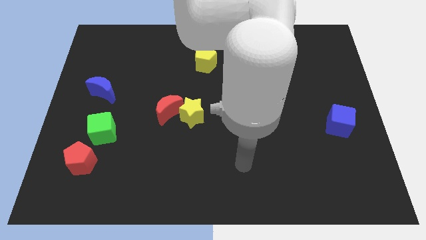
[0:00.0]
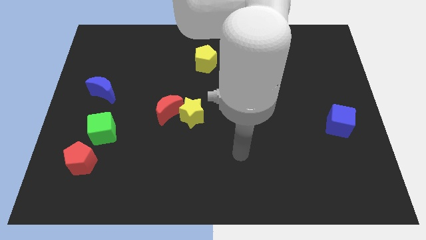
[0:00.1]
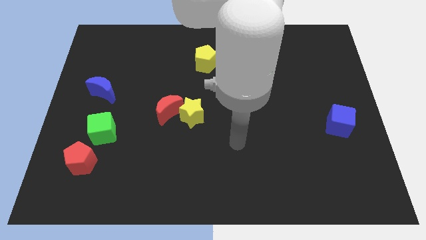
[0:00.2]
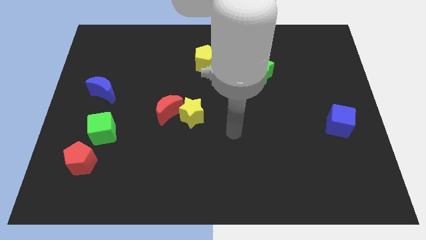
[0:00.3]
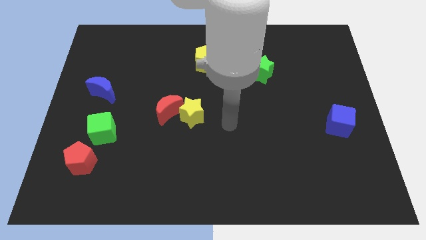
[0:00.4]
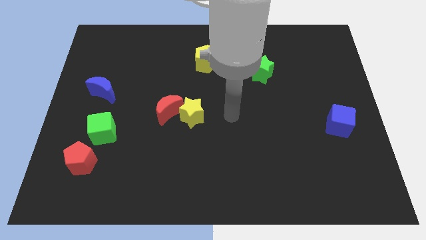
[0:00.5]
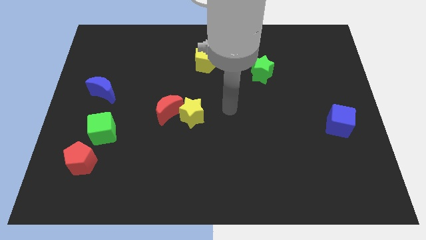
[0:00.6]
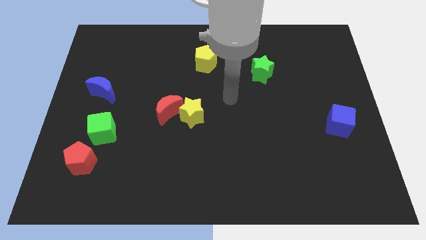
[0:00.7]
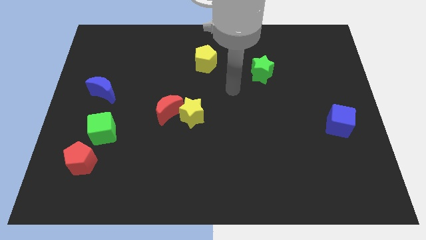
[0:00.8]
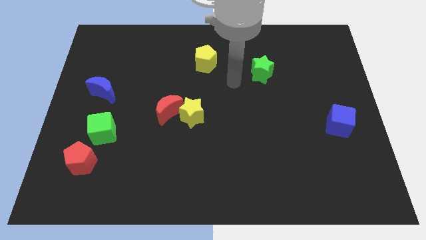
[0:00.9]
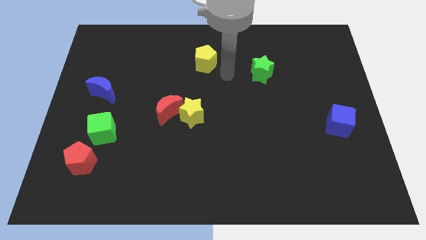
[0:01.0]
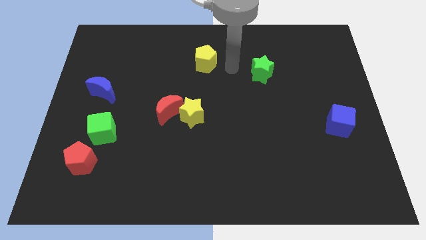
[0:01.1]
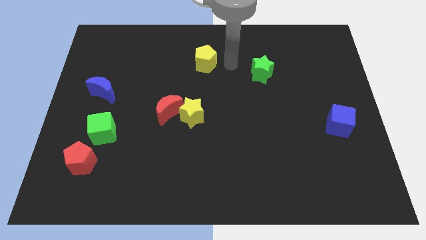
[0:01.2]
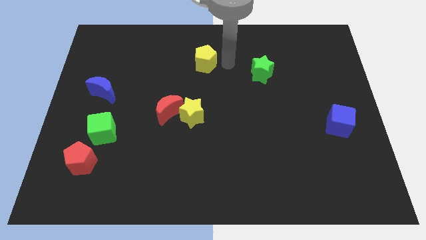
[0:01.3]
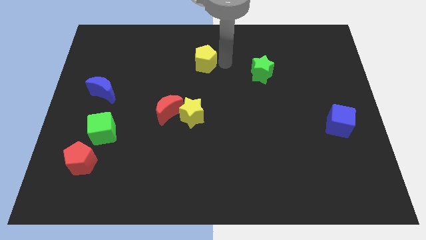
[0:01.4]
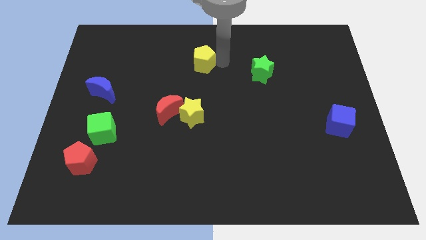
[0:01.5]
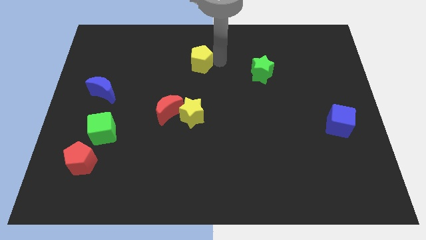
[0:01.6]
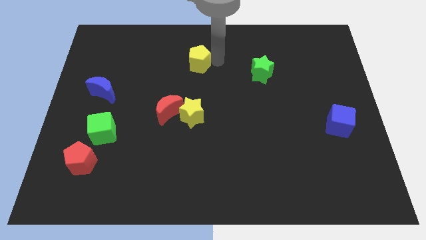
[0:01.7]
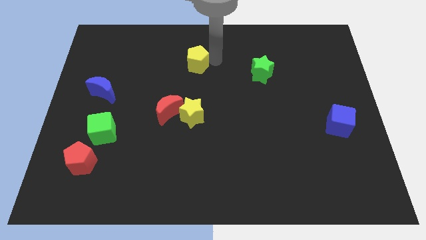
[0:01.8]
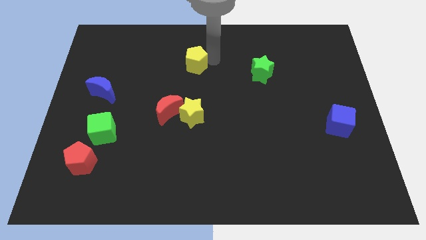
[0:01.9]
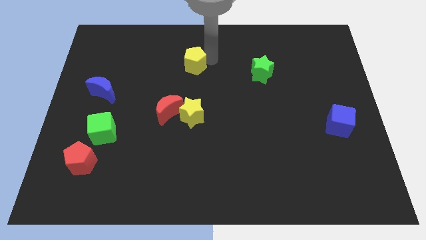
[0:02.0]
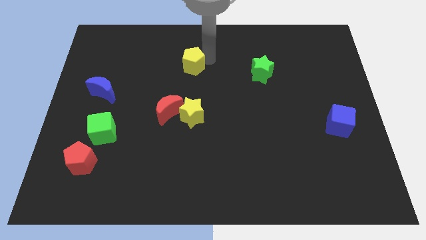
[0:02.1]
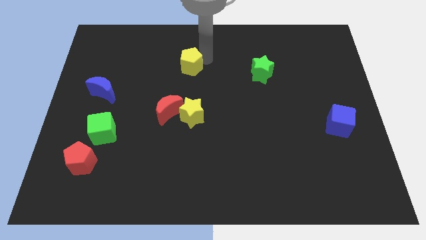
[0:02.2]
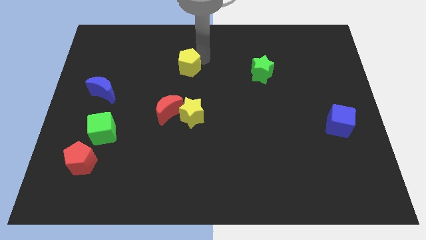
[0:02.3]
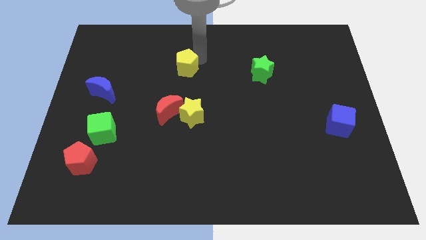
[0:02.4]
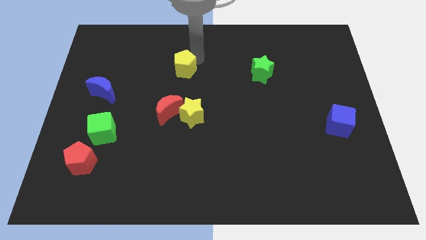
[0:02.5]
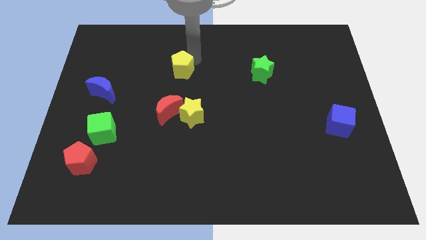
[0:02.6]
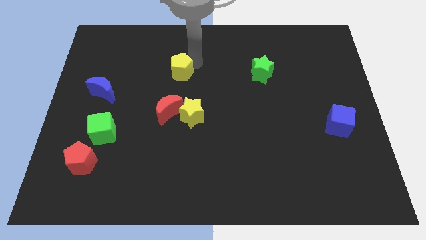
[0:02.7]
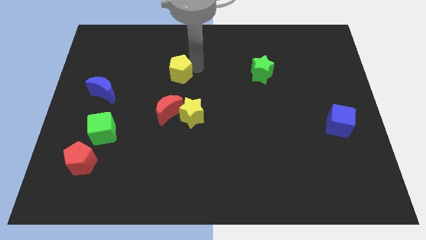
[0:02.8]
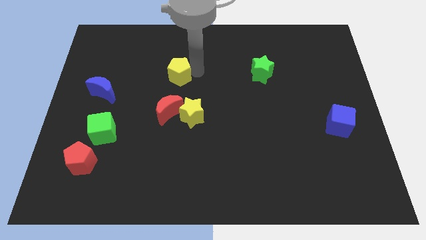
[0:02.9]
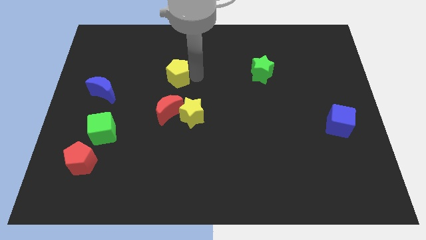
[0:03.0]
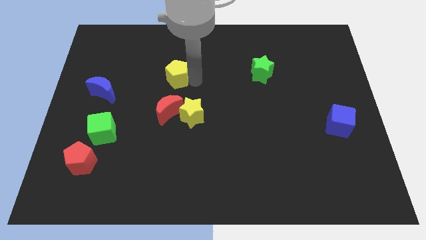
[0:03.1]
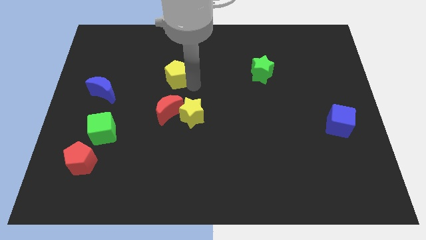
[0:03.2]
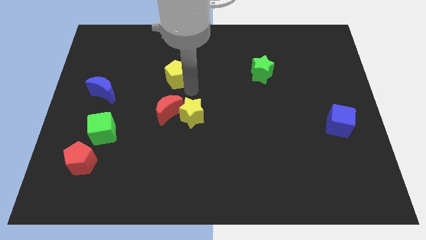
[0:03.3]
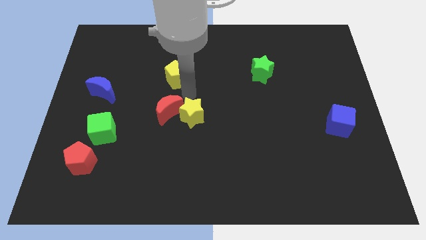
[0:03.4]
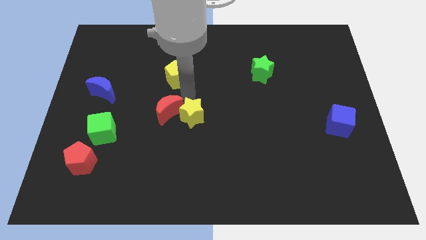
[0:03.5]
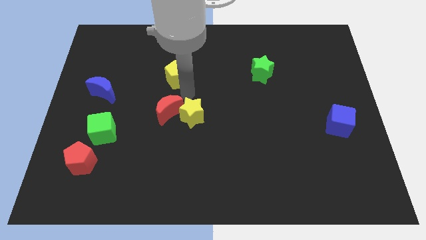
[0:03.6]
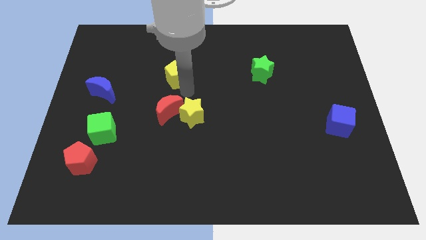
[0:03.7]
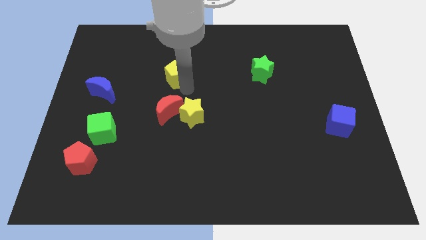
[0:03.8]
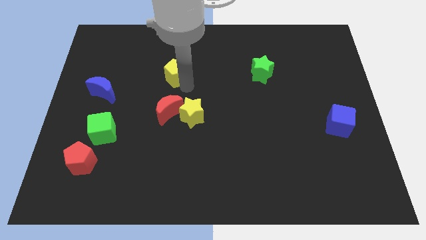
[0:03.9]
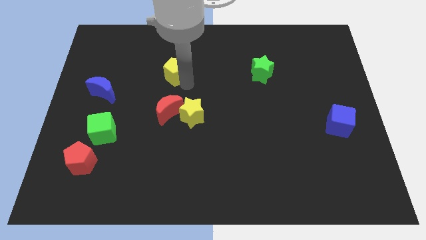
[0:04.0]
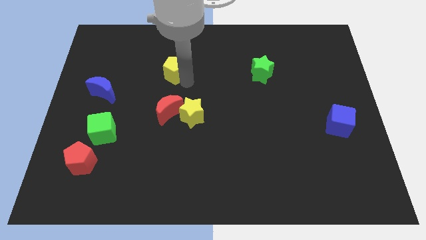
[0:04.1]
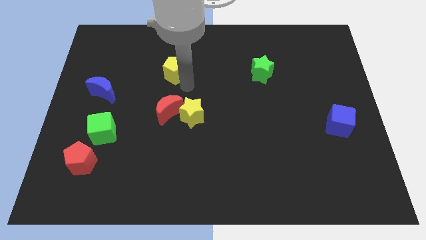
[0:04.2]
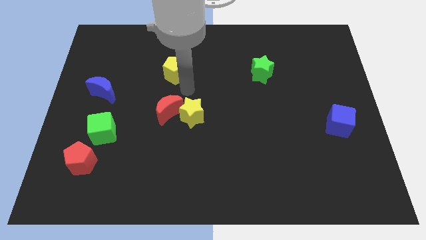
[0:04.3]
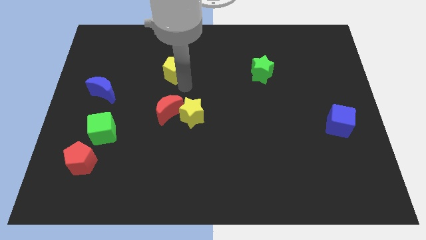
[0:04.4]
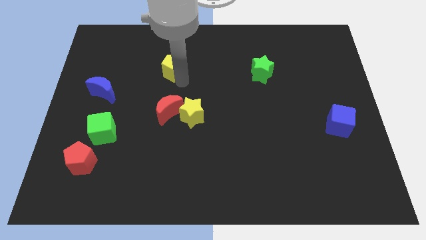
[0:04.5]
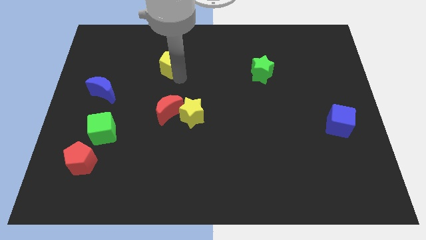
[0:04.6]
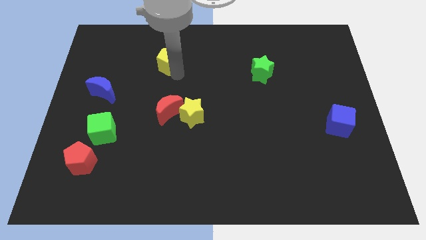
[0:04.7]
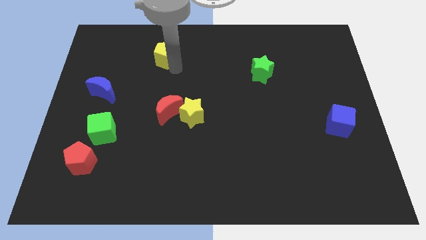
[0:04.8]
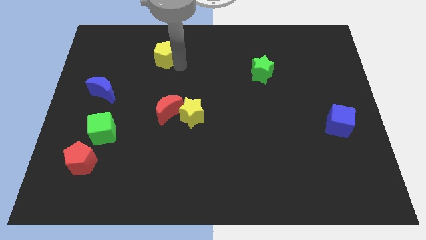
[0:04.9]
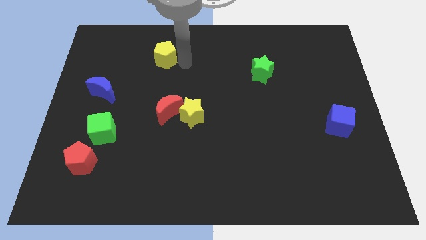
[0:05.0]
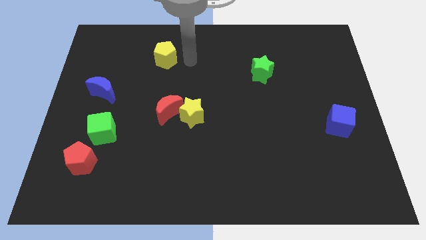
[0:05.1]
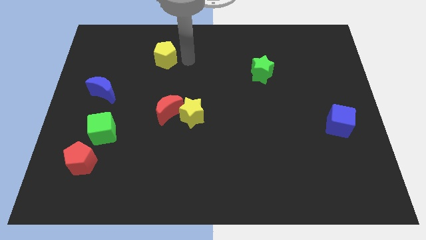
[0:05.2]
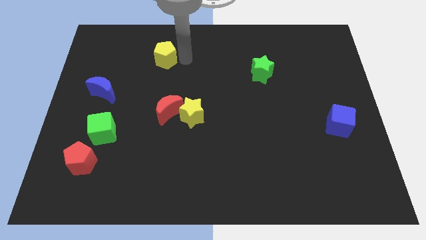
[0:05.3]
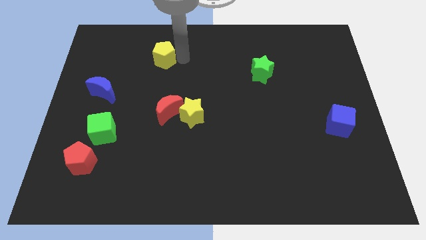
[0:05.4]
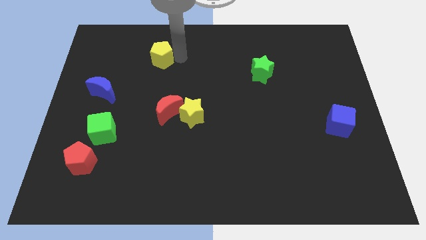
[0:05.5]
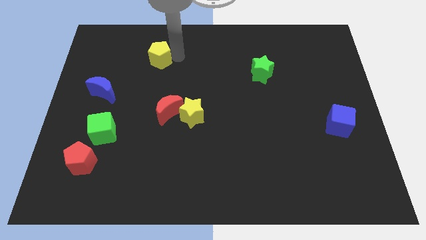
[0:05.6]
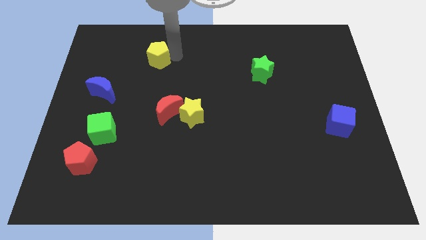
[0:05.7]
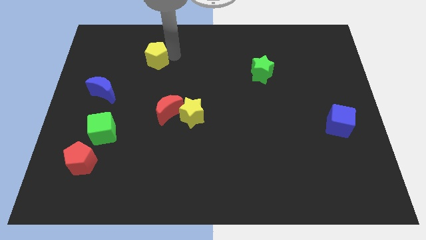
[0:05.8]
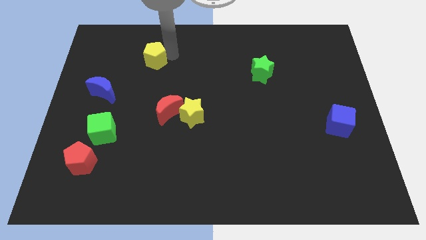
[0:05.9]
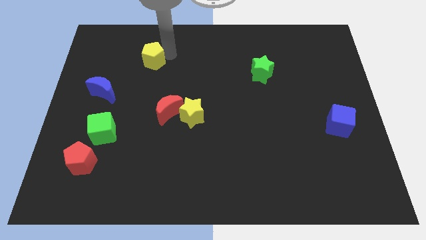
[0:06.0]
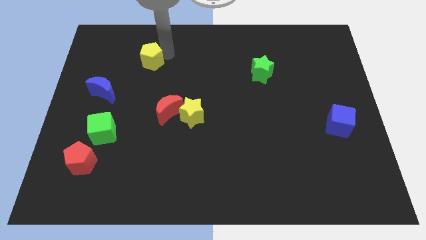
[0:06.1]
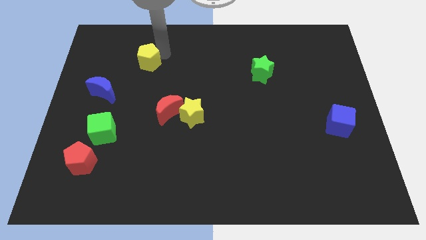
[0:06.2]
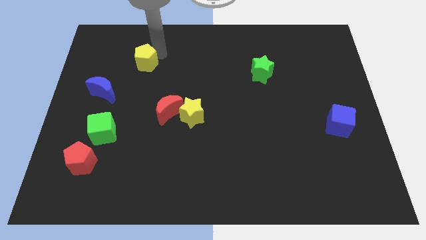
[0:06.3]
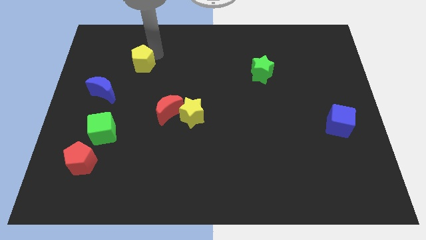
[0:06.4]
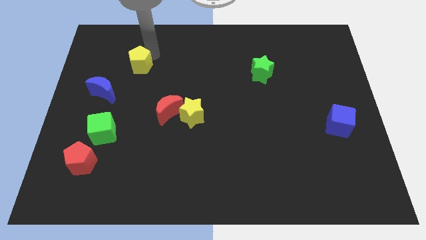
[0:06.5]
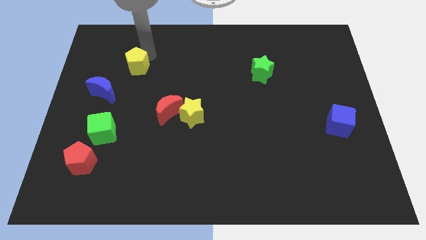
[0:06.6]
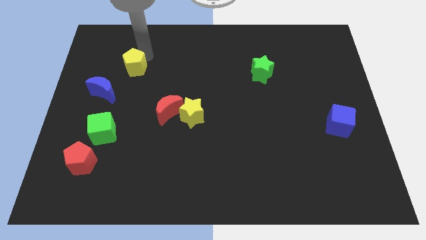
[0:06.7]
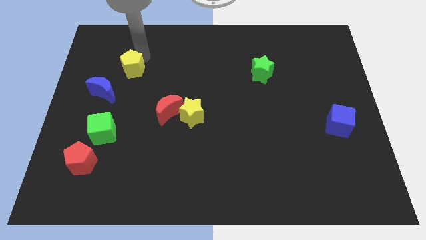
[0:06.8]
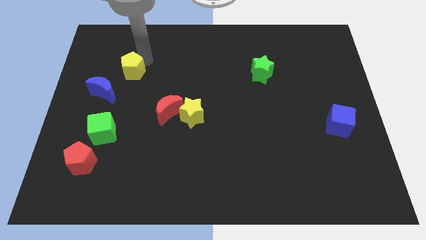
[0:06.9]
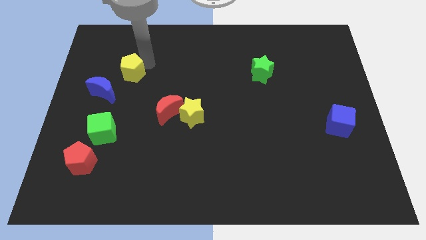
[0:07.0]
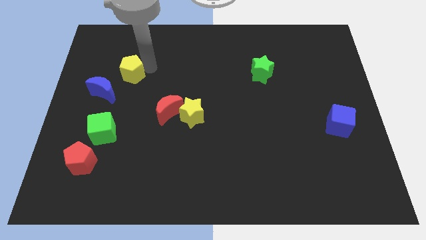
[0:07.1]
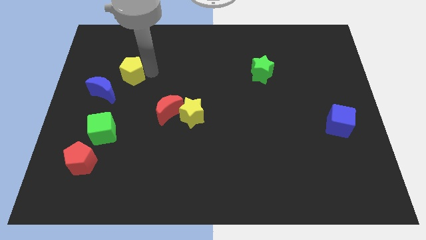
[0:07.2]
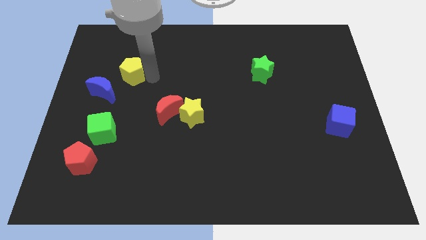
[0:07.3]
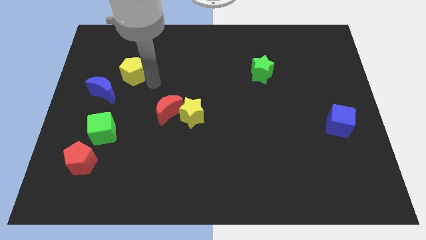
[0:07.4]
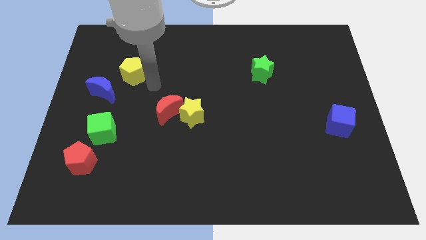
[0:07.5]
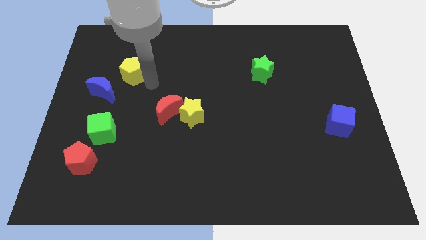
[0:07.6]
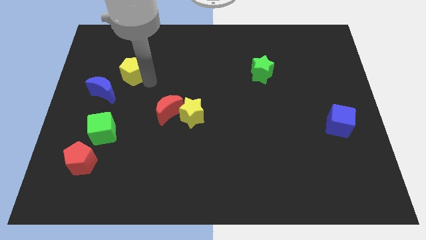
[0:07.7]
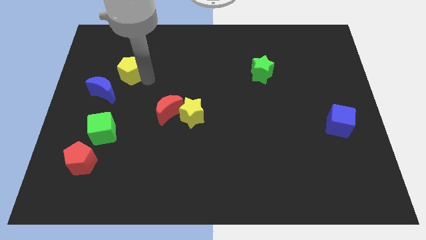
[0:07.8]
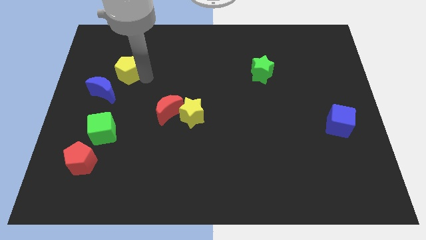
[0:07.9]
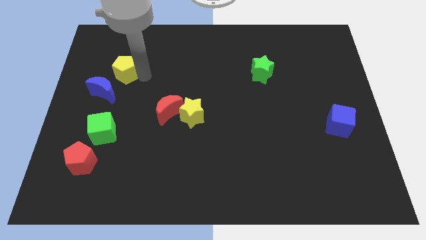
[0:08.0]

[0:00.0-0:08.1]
put the yellow pentagon to the top of the blue moon
